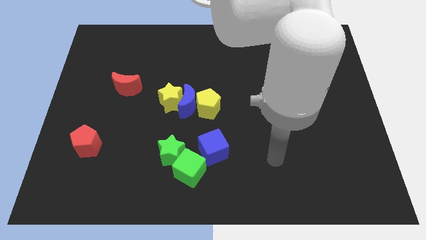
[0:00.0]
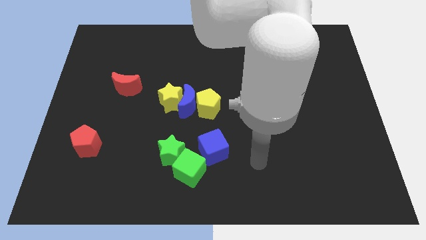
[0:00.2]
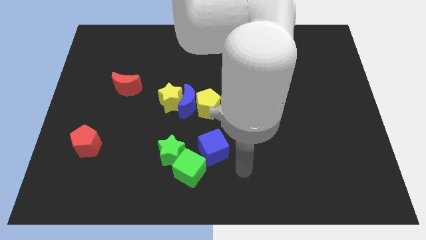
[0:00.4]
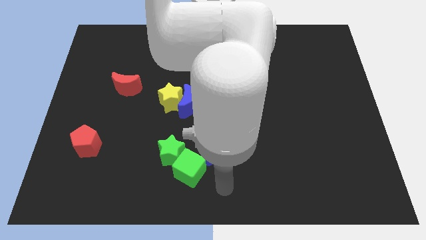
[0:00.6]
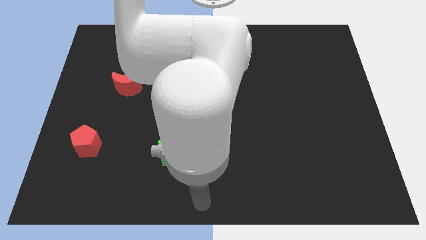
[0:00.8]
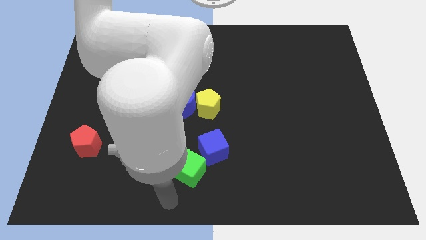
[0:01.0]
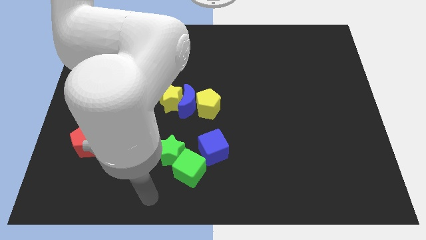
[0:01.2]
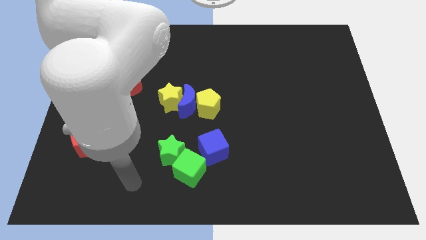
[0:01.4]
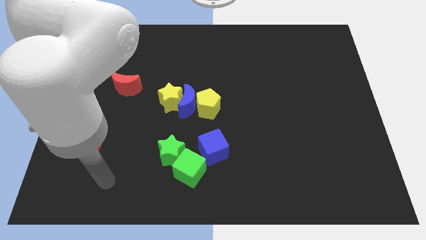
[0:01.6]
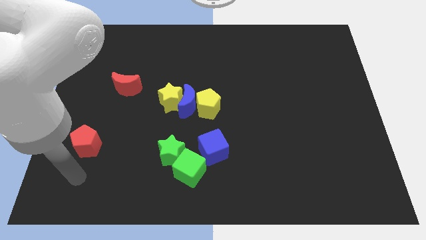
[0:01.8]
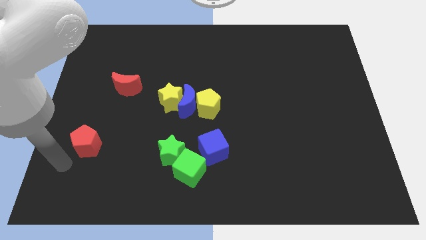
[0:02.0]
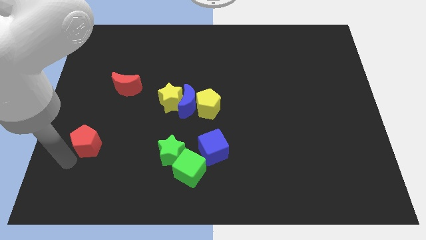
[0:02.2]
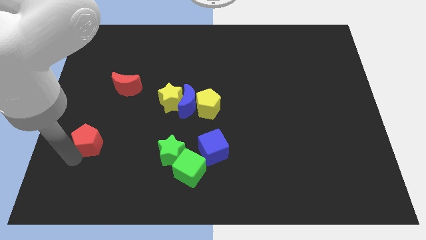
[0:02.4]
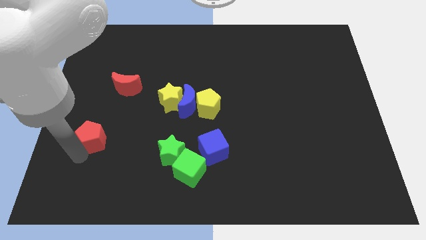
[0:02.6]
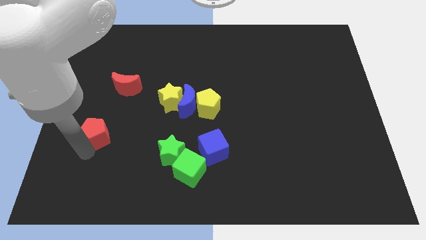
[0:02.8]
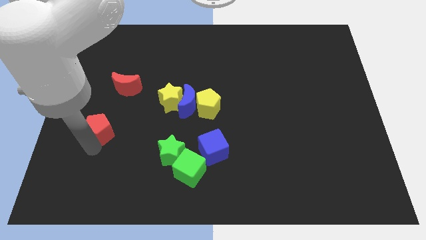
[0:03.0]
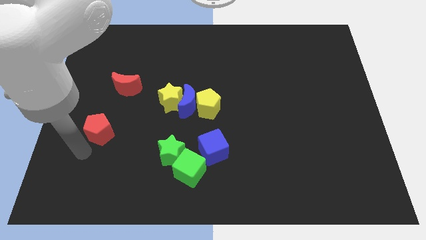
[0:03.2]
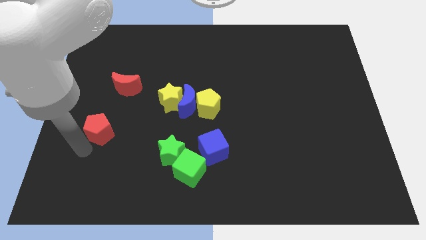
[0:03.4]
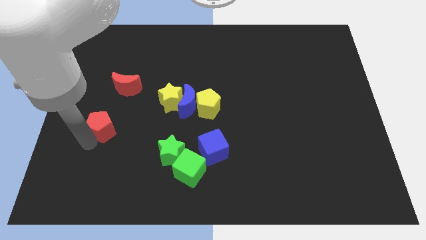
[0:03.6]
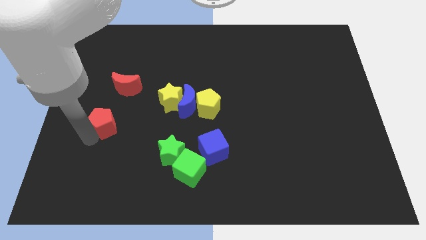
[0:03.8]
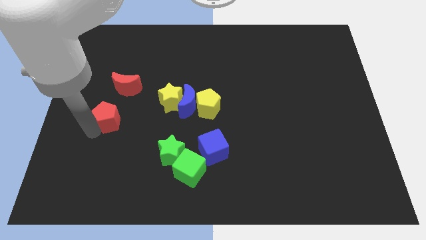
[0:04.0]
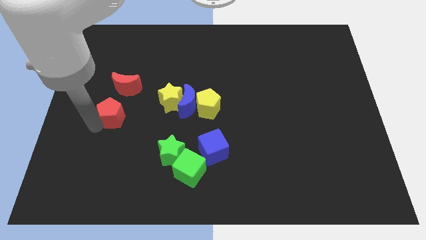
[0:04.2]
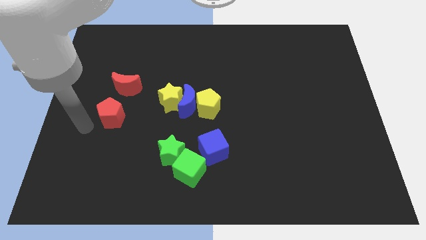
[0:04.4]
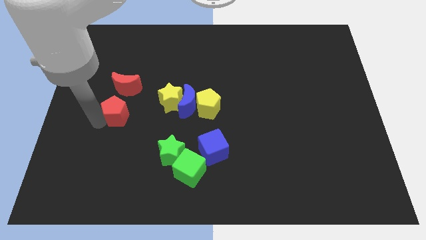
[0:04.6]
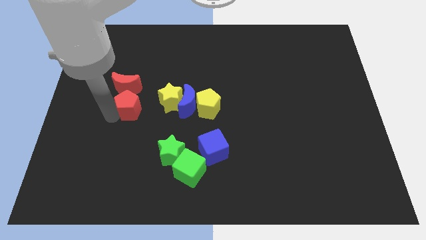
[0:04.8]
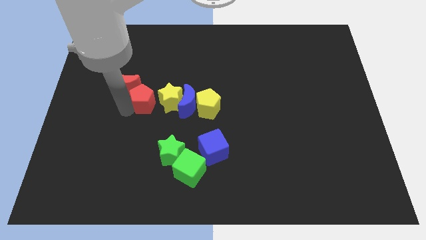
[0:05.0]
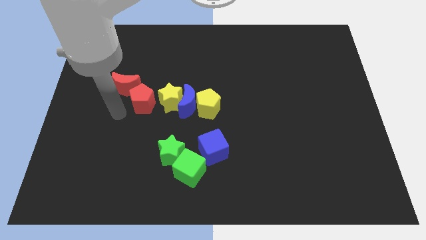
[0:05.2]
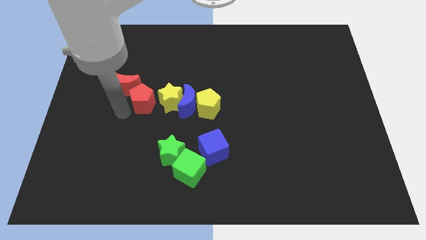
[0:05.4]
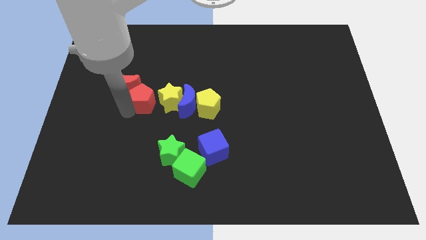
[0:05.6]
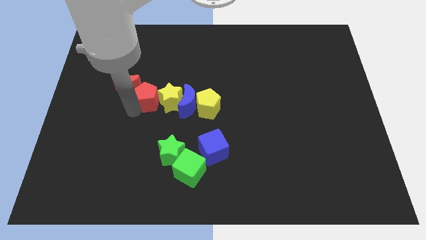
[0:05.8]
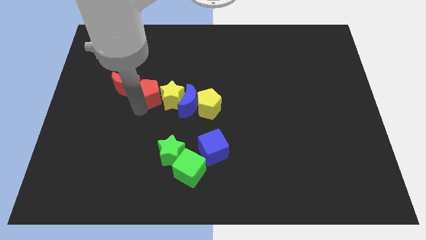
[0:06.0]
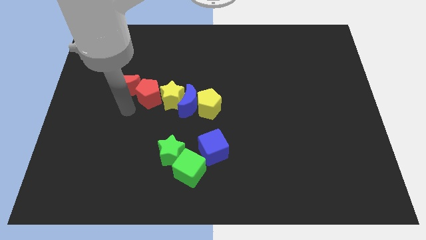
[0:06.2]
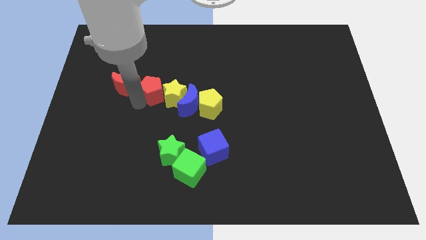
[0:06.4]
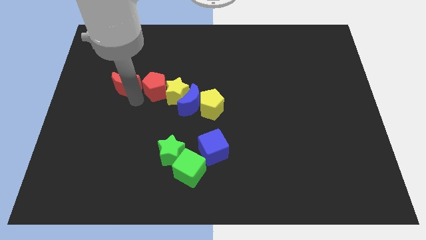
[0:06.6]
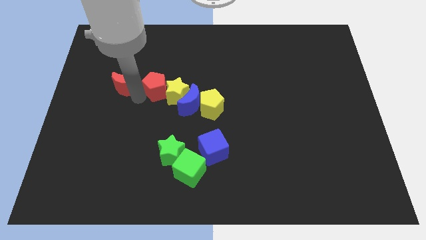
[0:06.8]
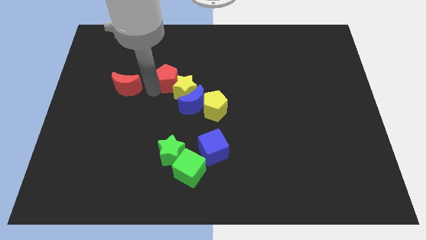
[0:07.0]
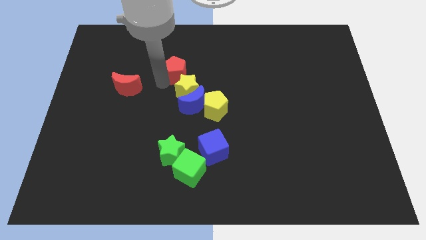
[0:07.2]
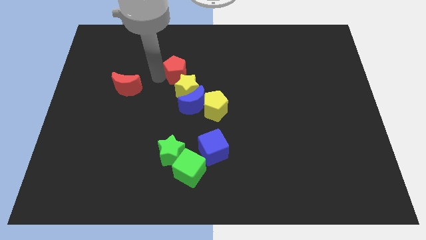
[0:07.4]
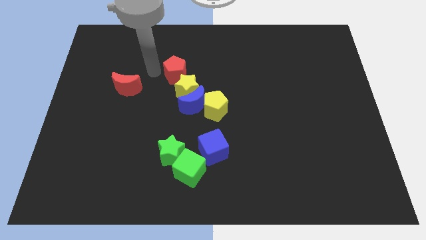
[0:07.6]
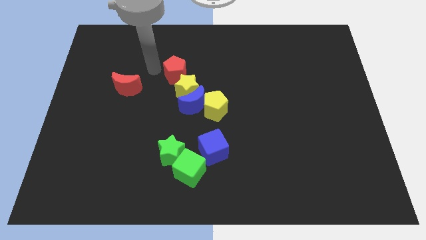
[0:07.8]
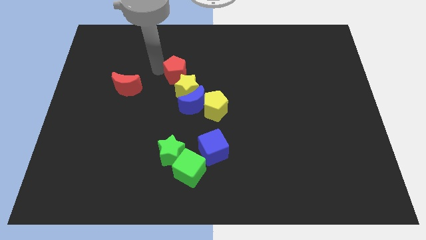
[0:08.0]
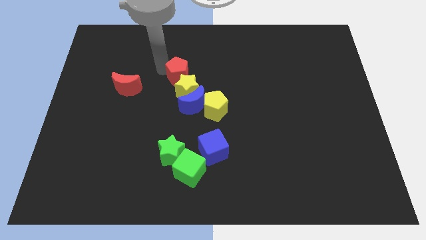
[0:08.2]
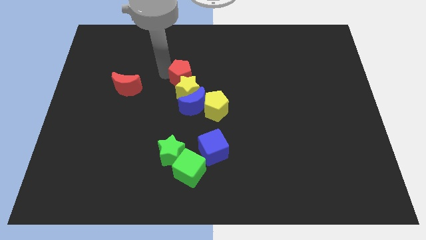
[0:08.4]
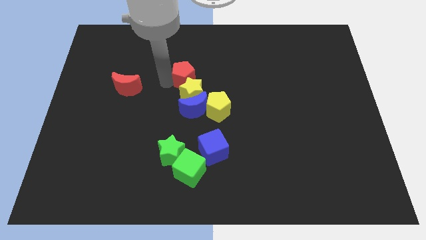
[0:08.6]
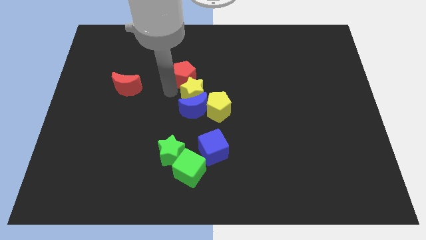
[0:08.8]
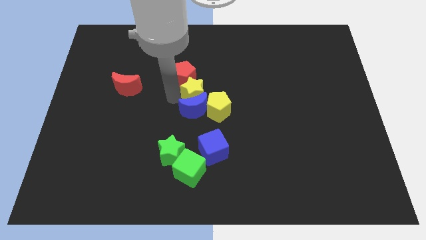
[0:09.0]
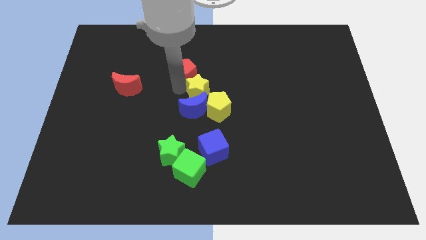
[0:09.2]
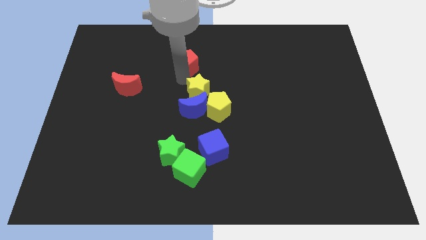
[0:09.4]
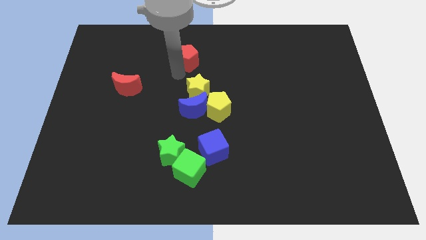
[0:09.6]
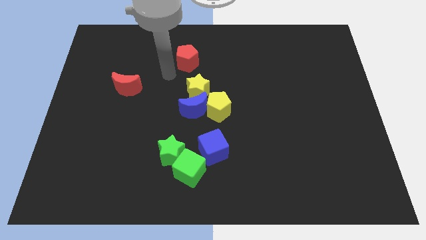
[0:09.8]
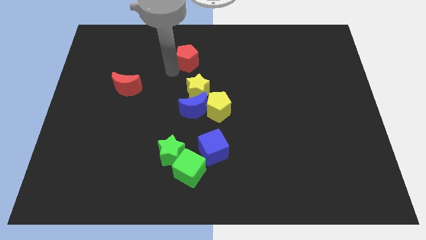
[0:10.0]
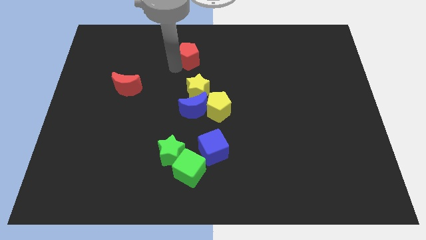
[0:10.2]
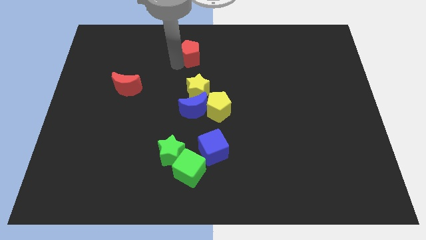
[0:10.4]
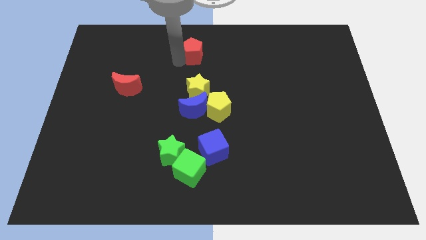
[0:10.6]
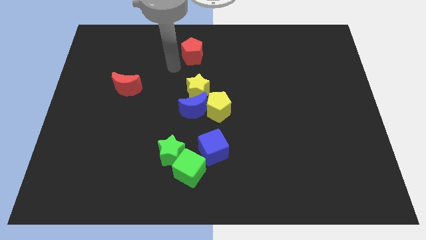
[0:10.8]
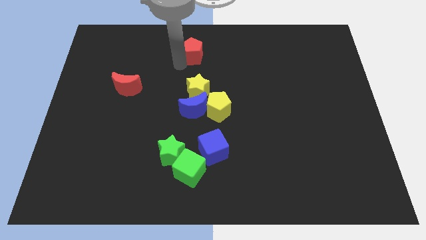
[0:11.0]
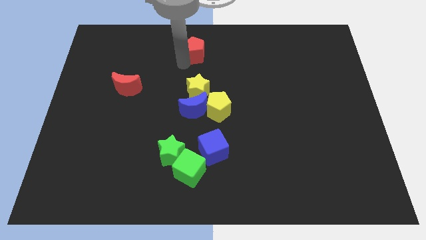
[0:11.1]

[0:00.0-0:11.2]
slide the red pentagon to the towards your base

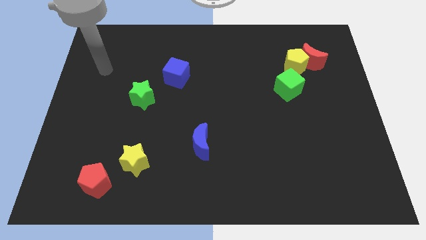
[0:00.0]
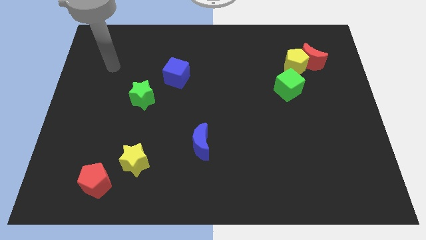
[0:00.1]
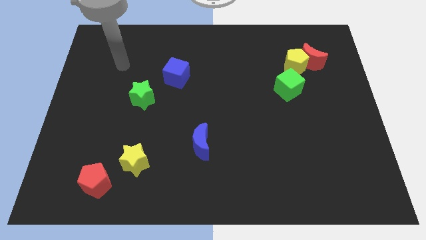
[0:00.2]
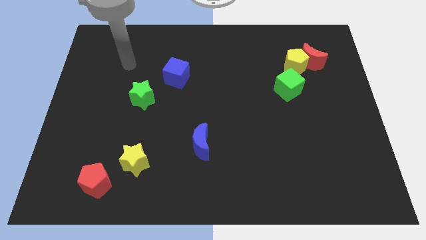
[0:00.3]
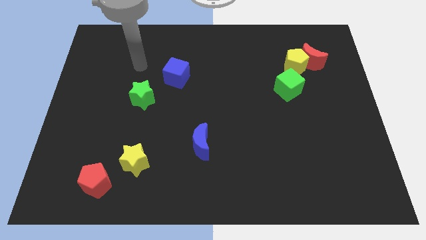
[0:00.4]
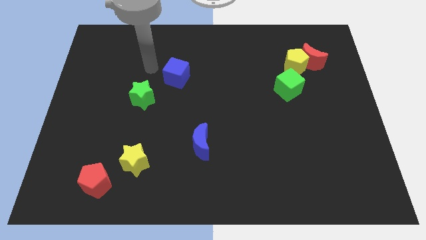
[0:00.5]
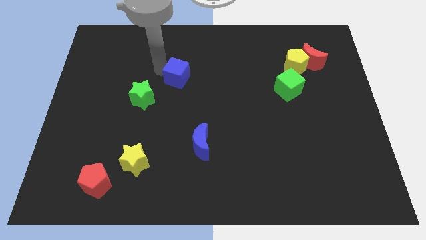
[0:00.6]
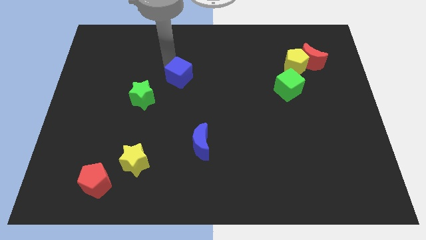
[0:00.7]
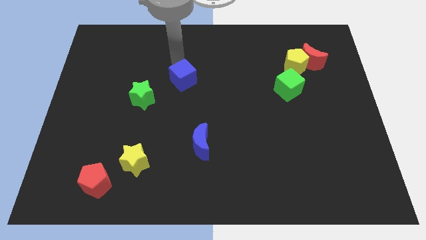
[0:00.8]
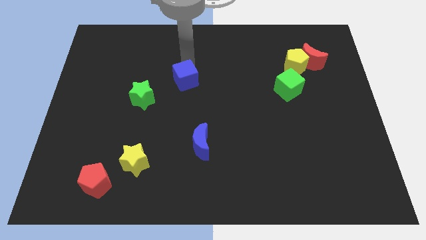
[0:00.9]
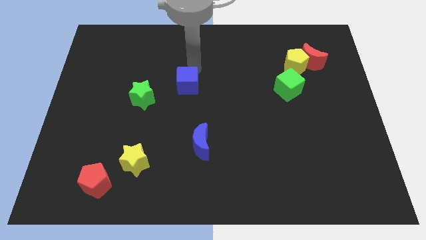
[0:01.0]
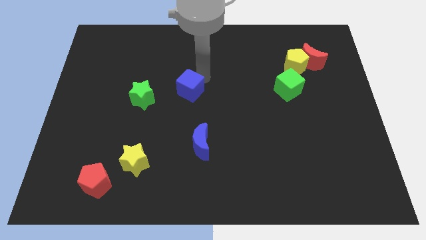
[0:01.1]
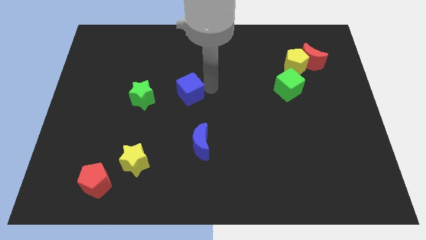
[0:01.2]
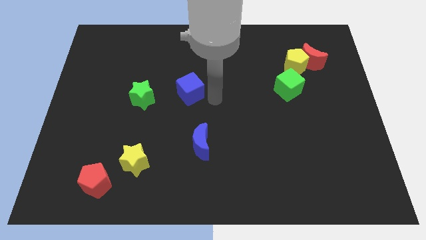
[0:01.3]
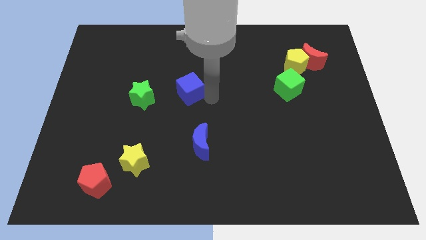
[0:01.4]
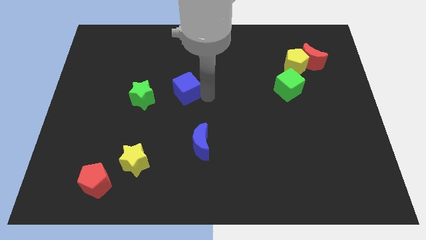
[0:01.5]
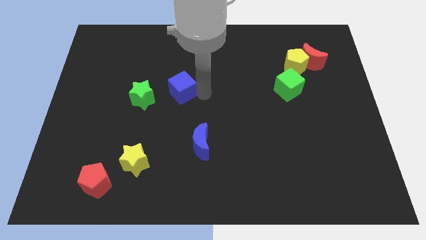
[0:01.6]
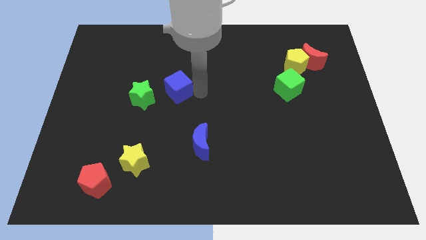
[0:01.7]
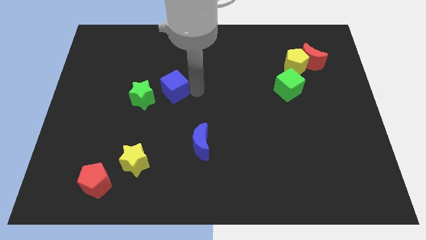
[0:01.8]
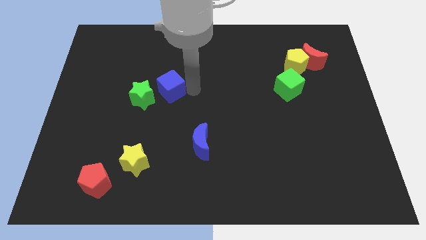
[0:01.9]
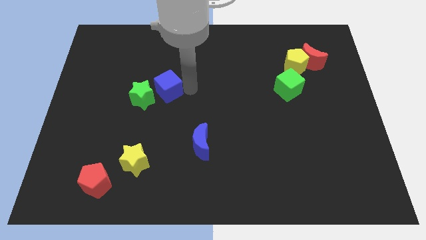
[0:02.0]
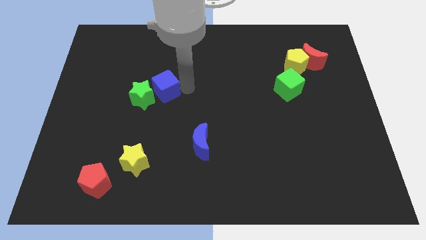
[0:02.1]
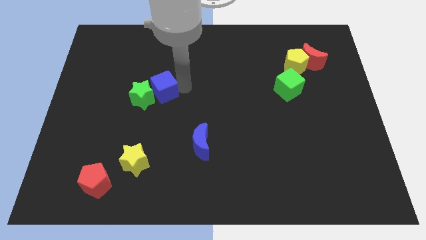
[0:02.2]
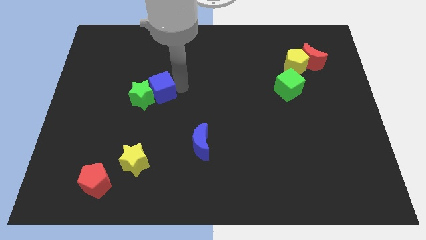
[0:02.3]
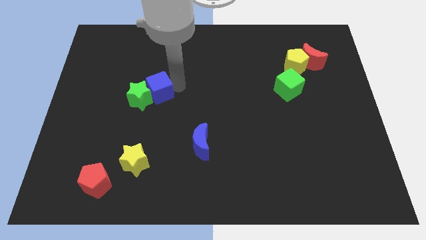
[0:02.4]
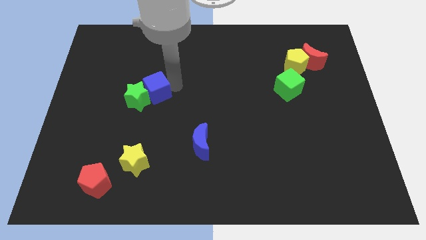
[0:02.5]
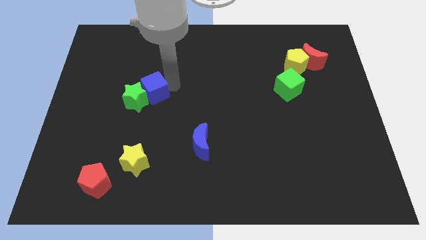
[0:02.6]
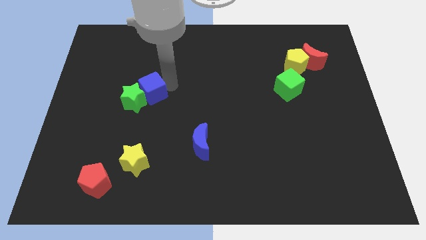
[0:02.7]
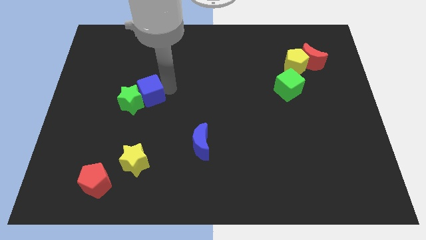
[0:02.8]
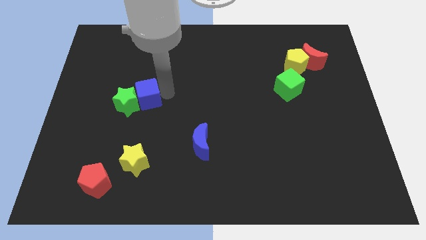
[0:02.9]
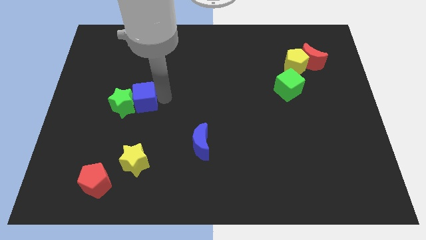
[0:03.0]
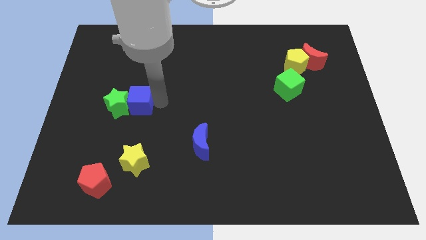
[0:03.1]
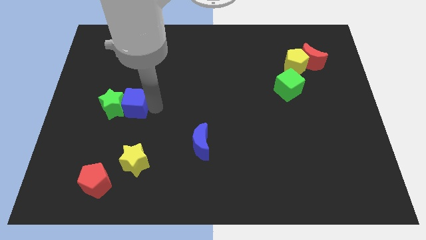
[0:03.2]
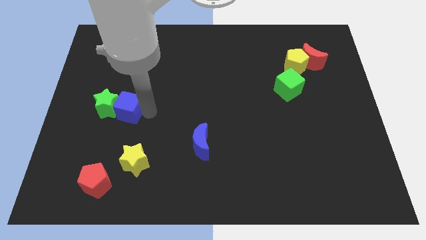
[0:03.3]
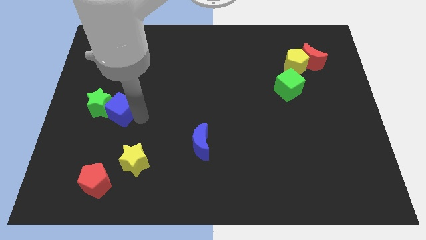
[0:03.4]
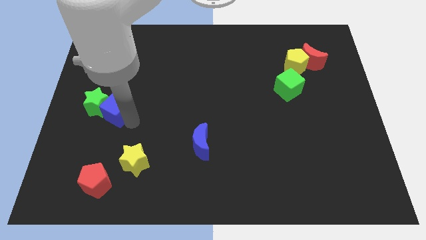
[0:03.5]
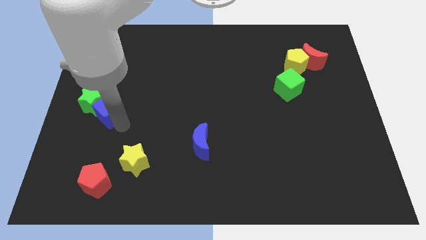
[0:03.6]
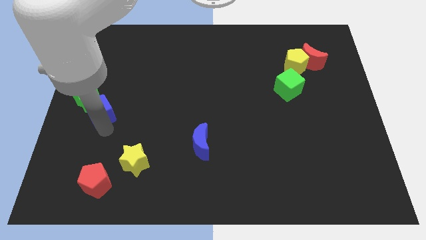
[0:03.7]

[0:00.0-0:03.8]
put the blue cube to the center left
